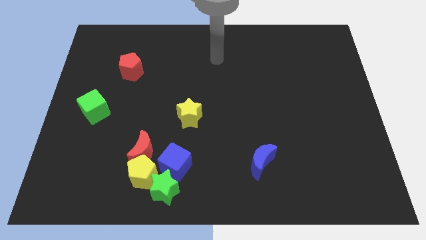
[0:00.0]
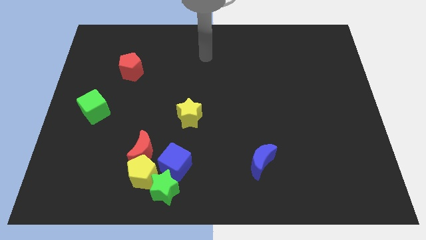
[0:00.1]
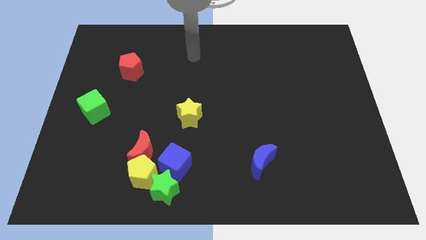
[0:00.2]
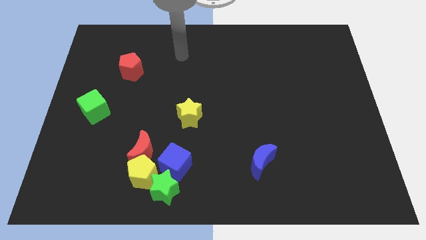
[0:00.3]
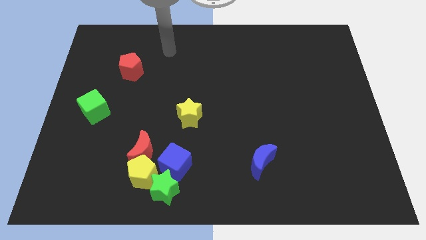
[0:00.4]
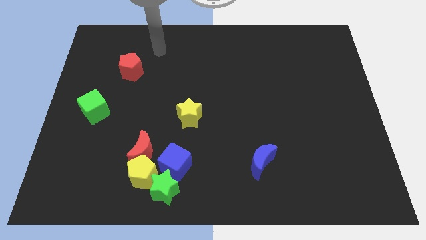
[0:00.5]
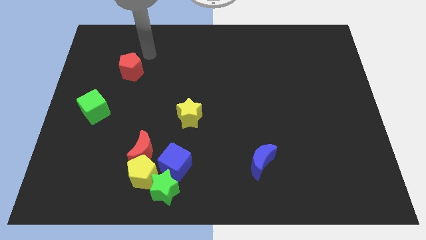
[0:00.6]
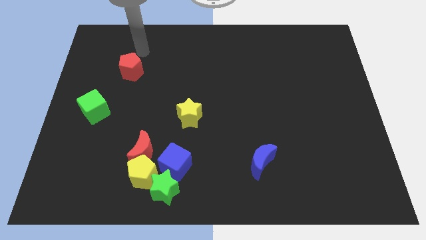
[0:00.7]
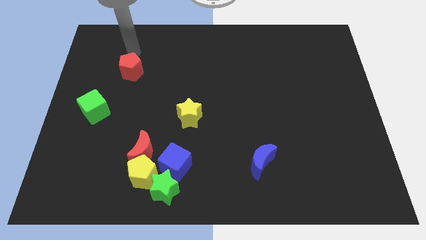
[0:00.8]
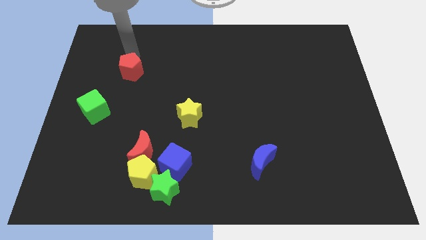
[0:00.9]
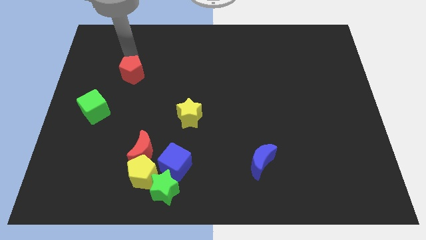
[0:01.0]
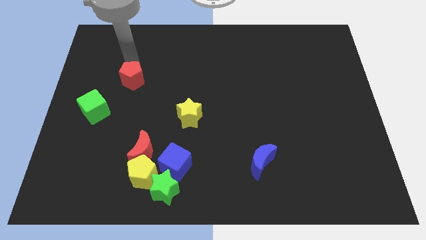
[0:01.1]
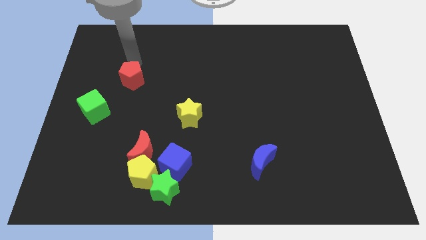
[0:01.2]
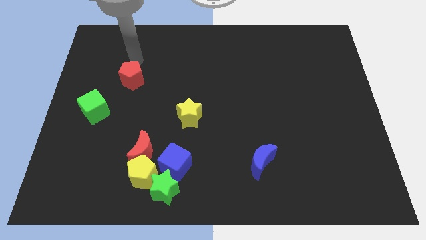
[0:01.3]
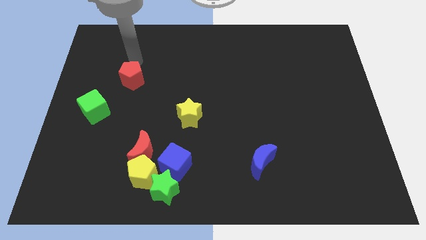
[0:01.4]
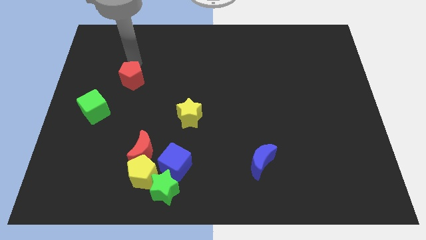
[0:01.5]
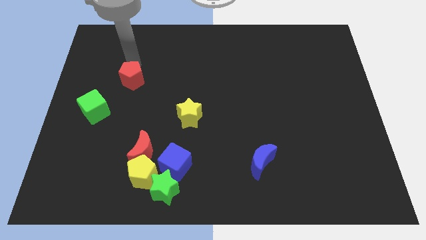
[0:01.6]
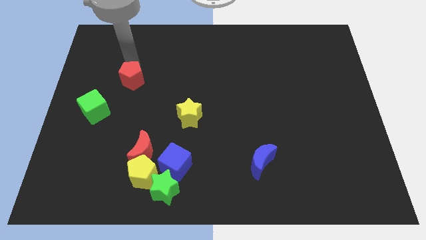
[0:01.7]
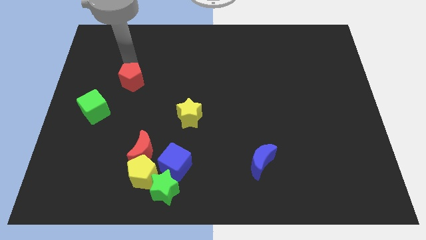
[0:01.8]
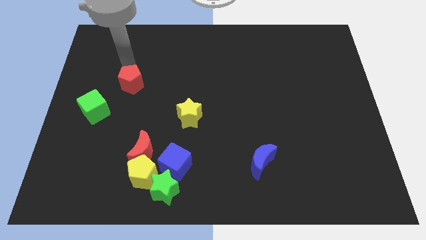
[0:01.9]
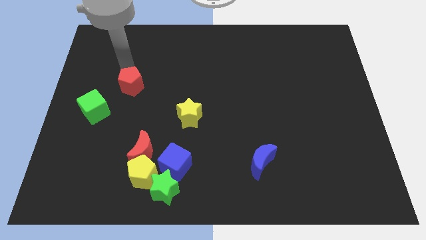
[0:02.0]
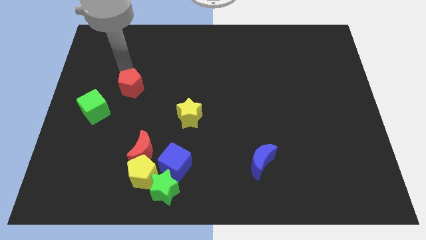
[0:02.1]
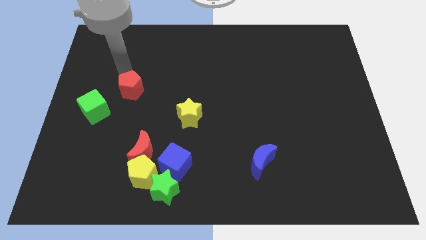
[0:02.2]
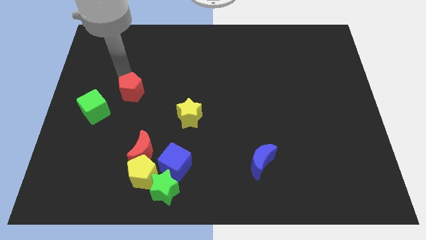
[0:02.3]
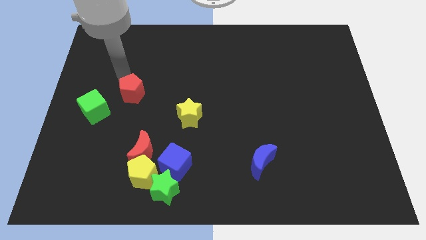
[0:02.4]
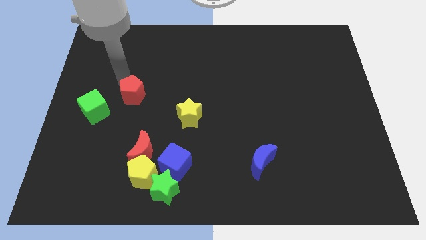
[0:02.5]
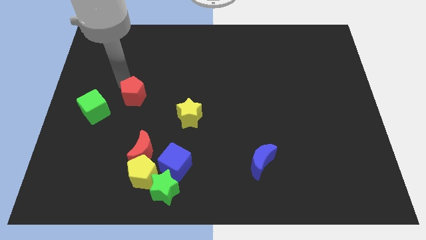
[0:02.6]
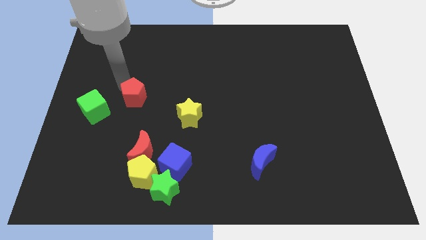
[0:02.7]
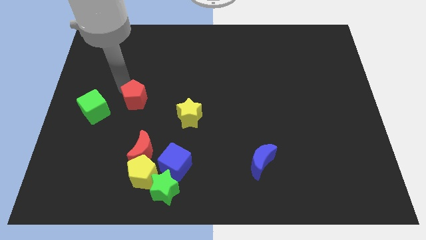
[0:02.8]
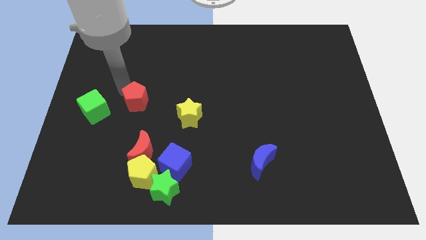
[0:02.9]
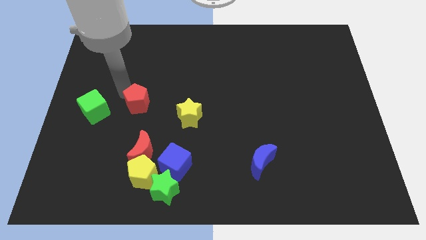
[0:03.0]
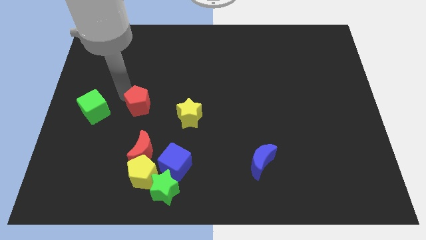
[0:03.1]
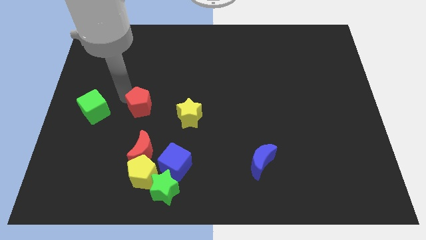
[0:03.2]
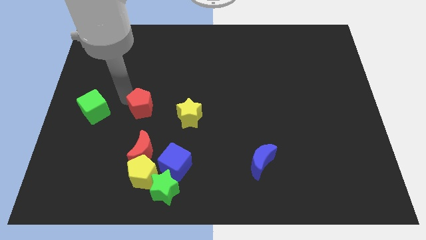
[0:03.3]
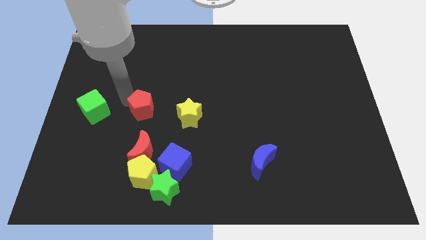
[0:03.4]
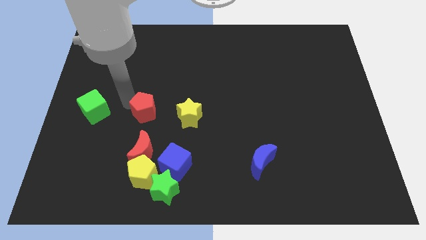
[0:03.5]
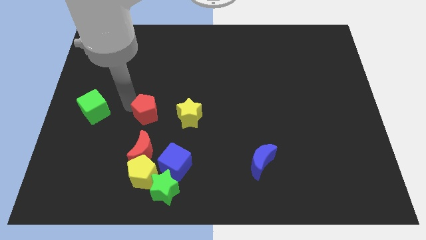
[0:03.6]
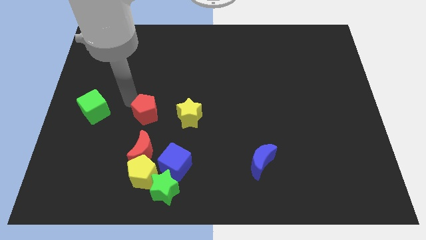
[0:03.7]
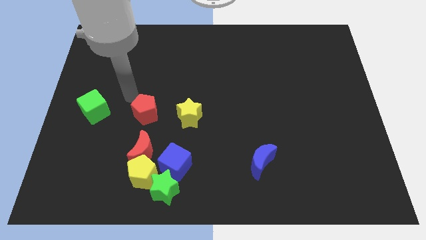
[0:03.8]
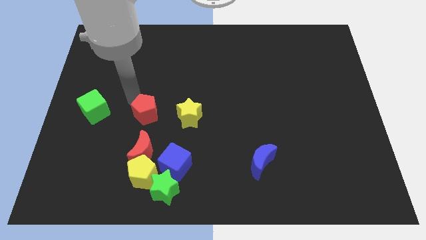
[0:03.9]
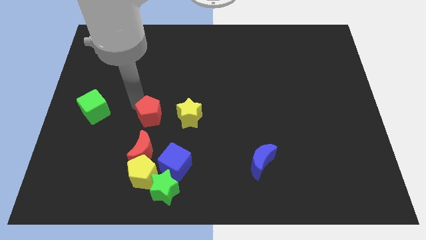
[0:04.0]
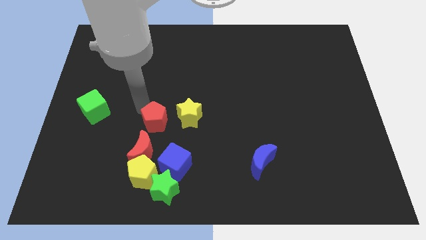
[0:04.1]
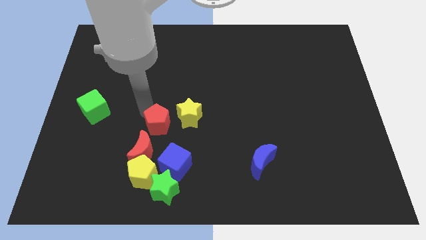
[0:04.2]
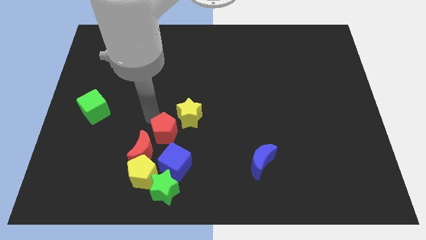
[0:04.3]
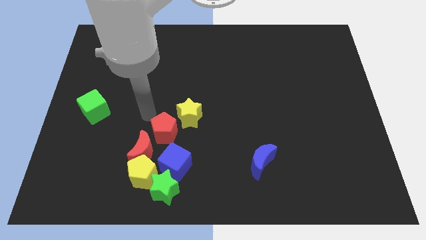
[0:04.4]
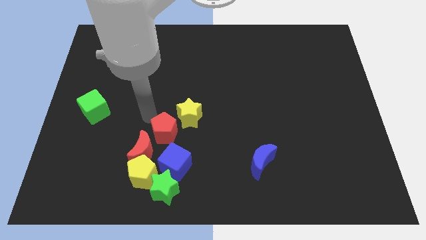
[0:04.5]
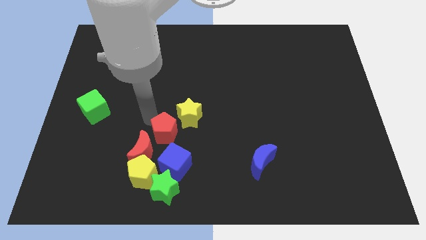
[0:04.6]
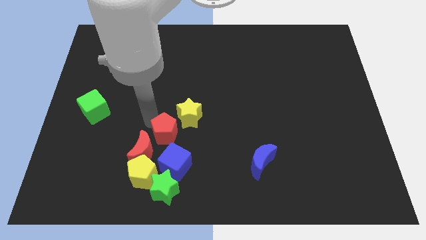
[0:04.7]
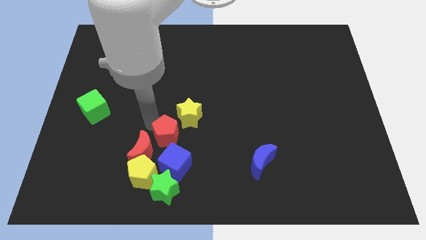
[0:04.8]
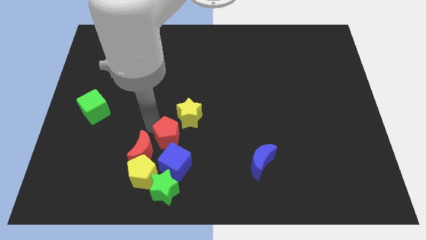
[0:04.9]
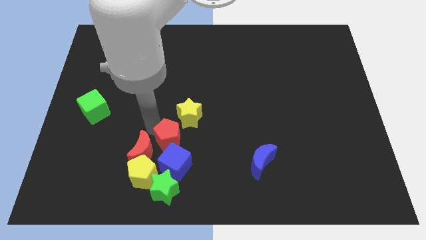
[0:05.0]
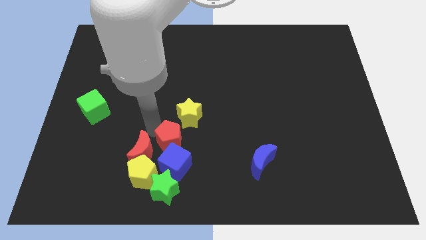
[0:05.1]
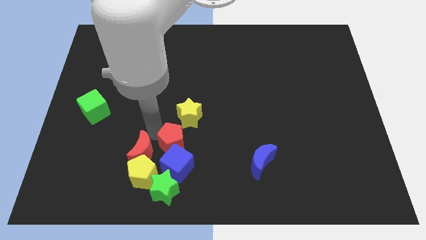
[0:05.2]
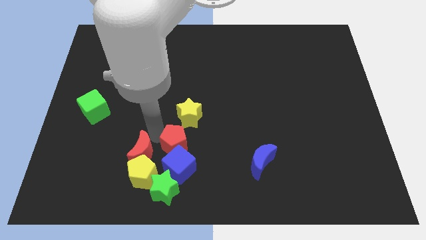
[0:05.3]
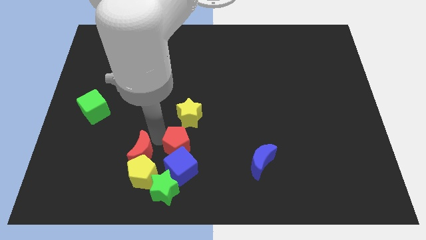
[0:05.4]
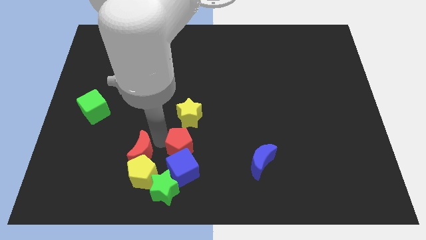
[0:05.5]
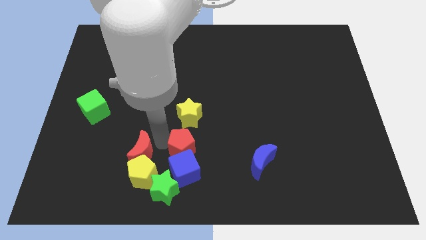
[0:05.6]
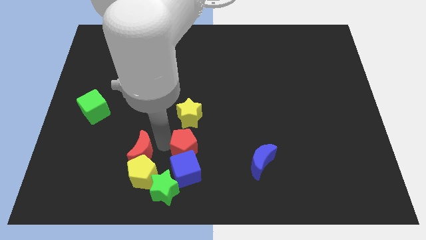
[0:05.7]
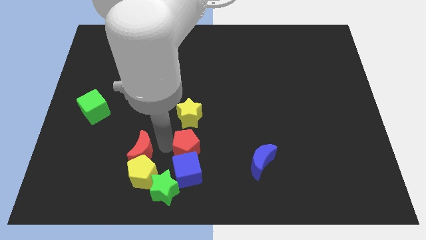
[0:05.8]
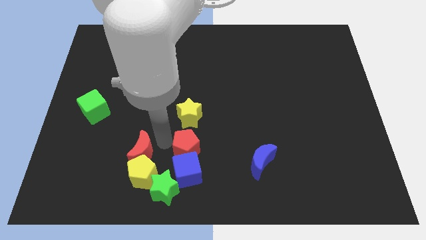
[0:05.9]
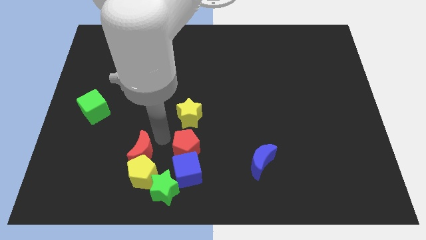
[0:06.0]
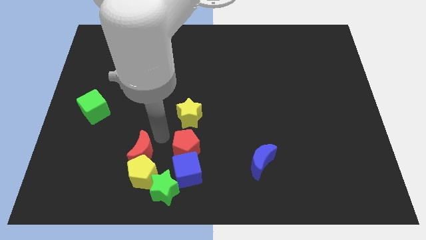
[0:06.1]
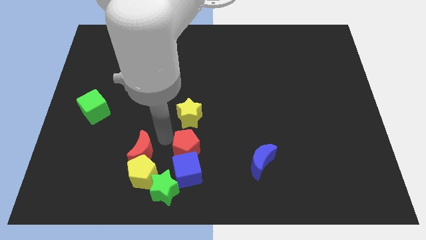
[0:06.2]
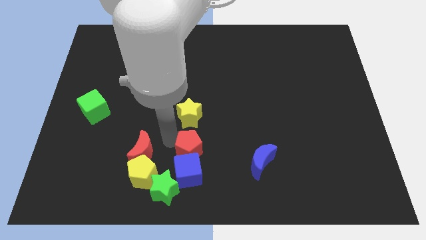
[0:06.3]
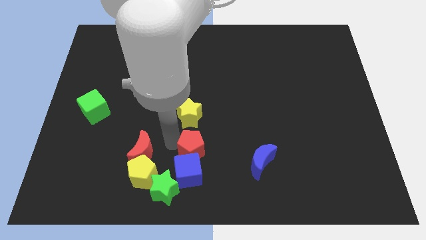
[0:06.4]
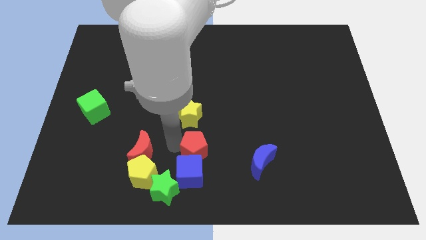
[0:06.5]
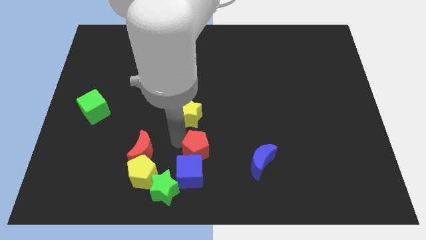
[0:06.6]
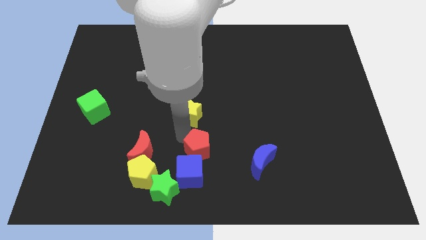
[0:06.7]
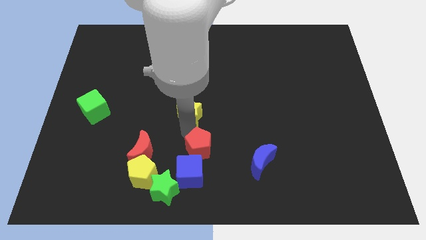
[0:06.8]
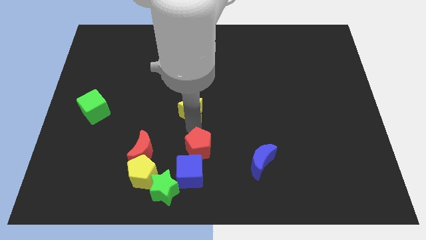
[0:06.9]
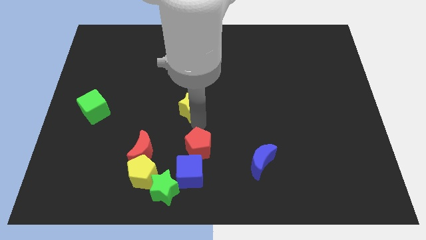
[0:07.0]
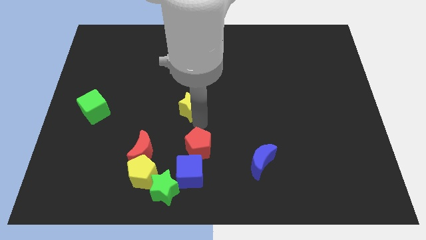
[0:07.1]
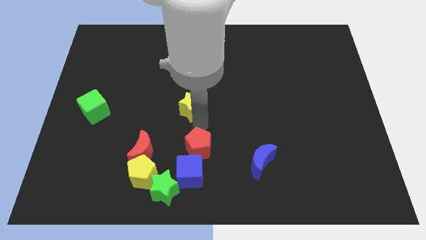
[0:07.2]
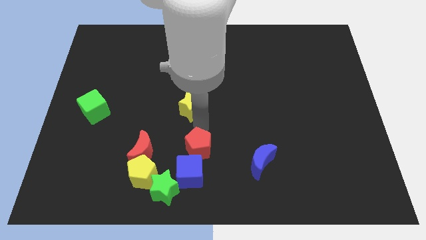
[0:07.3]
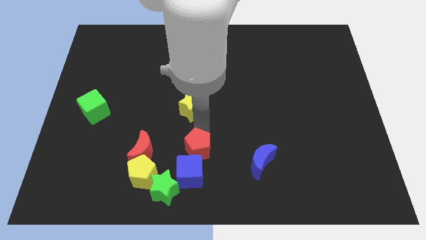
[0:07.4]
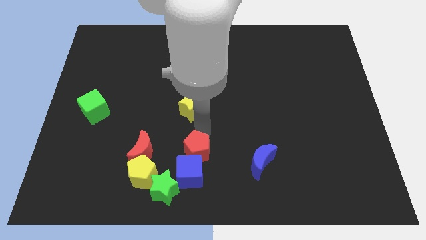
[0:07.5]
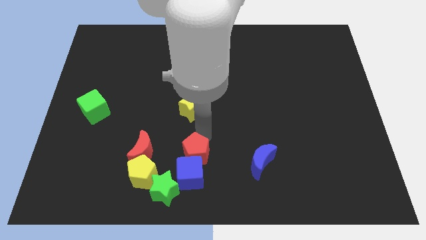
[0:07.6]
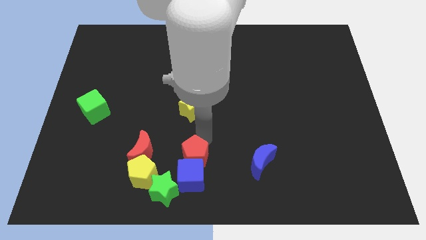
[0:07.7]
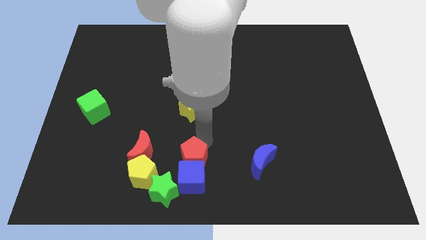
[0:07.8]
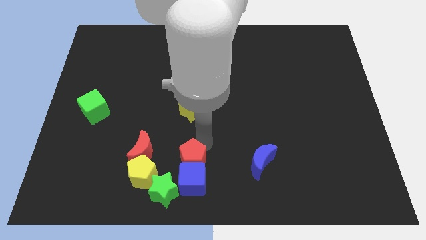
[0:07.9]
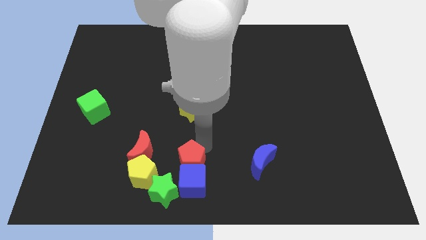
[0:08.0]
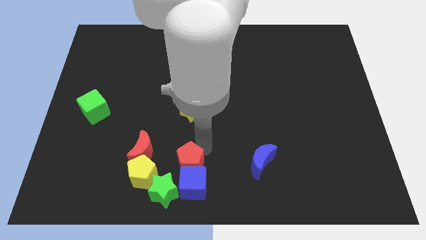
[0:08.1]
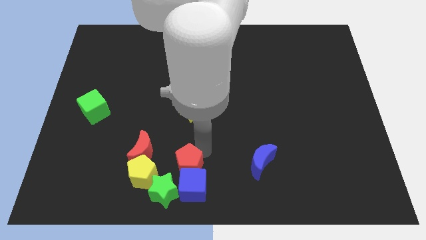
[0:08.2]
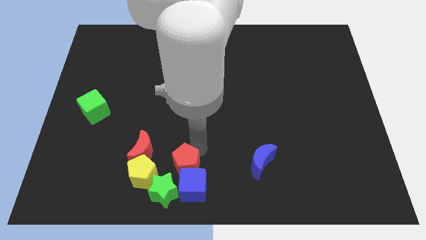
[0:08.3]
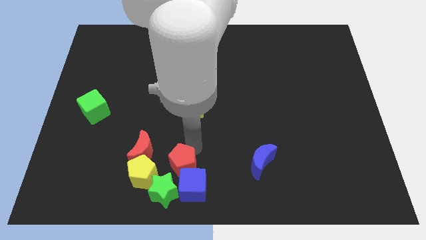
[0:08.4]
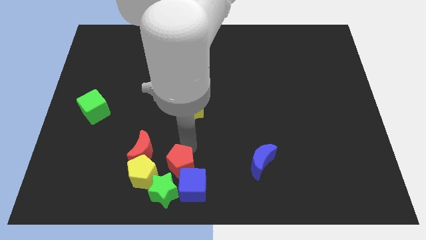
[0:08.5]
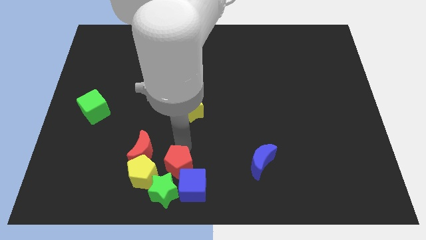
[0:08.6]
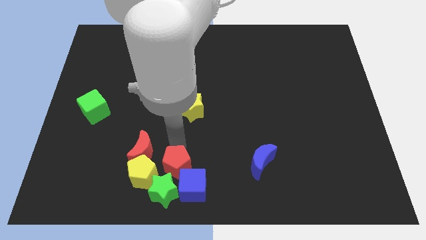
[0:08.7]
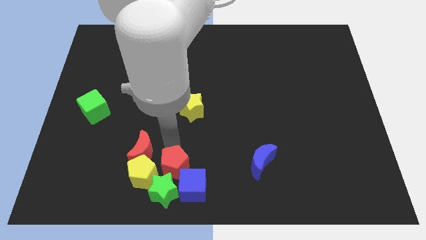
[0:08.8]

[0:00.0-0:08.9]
put the red pentagon to the green star
